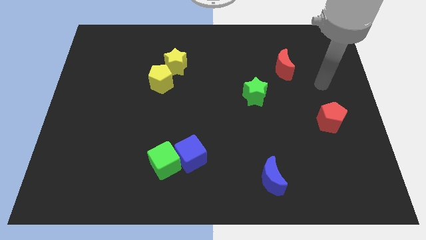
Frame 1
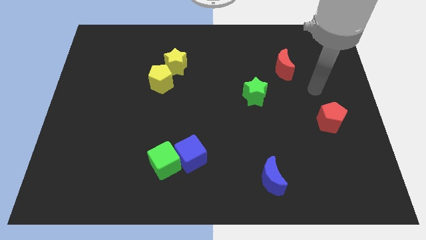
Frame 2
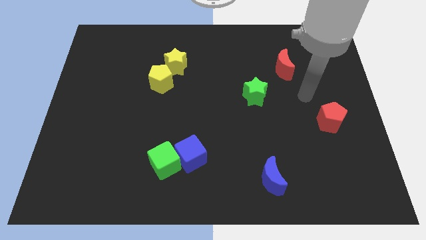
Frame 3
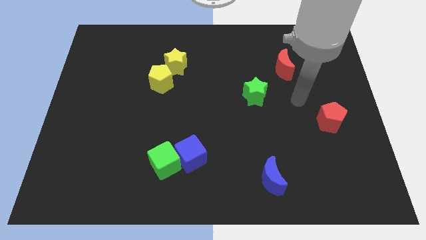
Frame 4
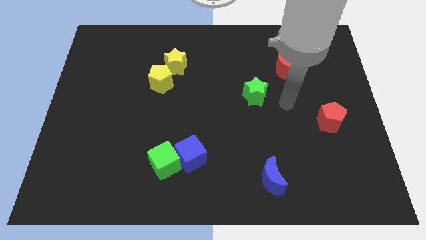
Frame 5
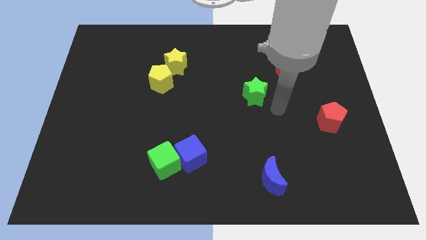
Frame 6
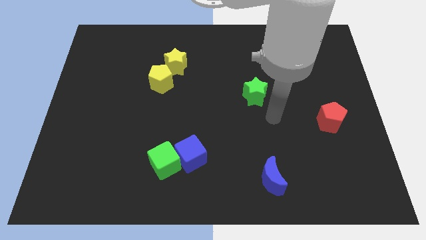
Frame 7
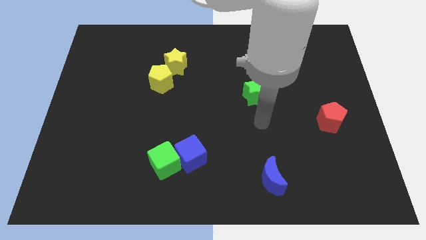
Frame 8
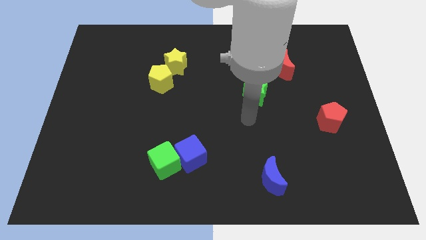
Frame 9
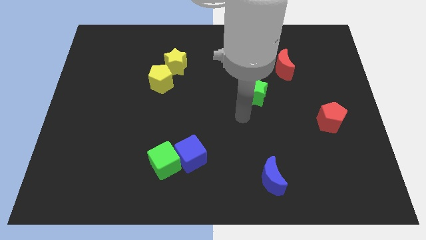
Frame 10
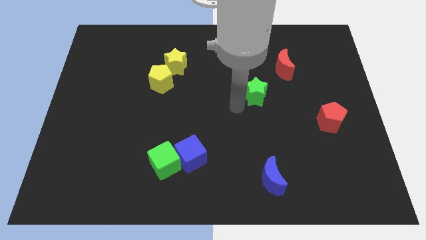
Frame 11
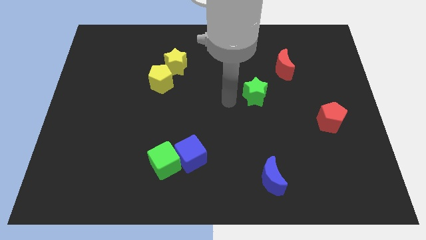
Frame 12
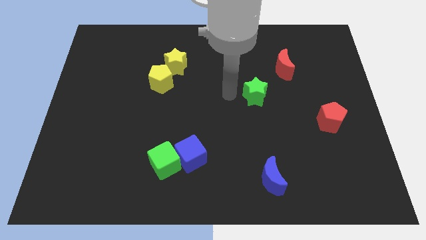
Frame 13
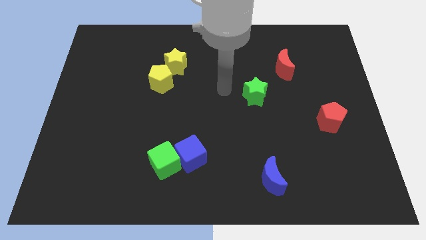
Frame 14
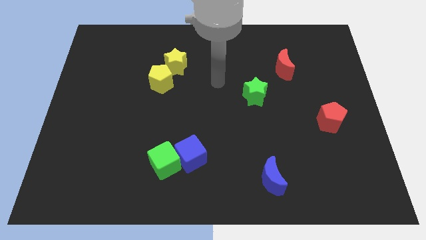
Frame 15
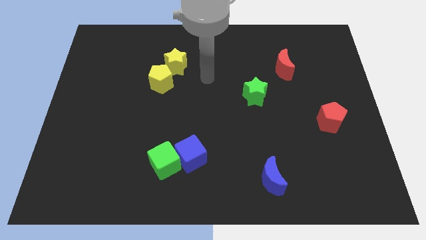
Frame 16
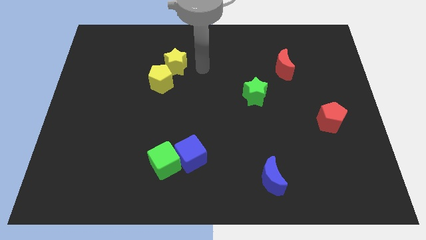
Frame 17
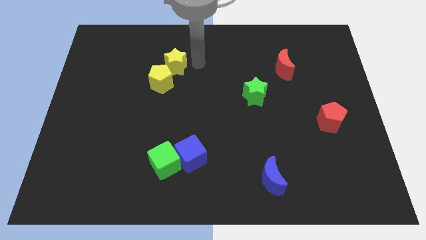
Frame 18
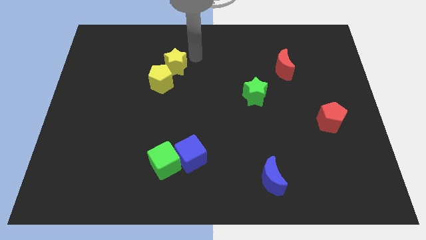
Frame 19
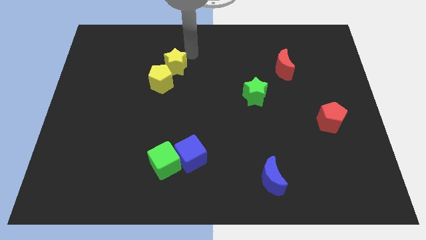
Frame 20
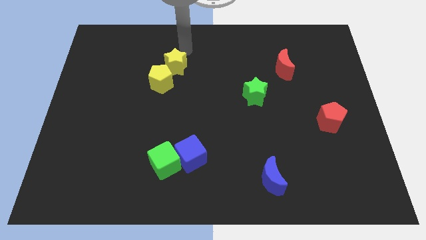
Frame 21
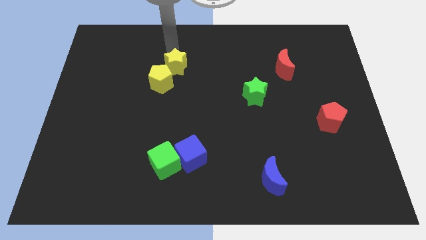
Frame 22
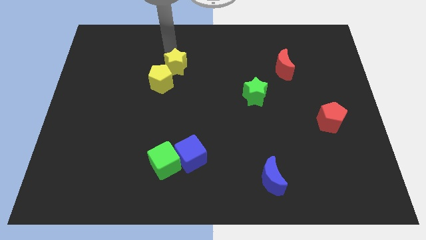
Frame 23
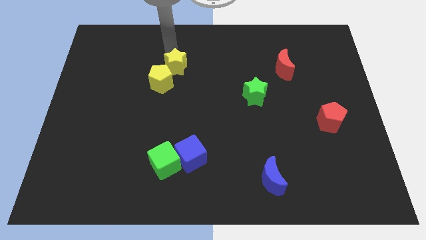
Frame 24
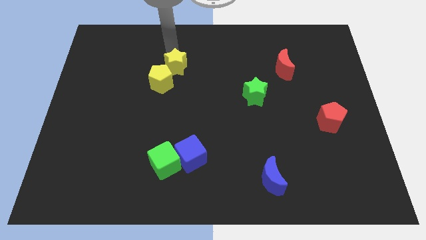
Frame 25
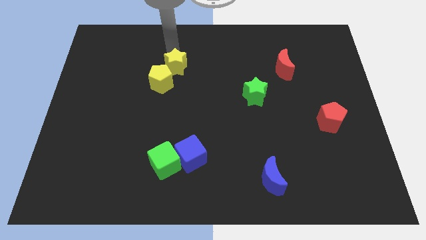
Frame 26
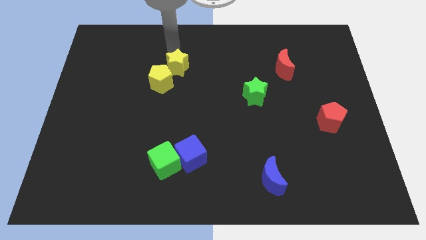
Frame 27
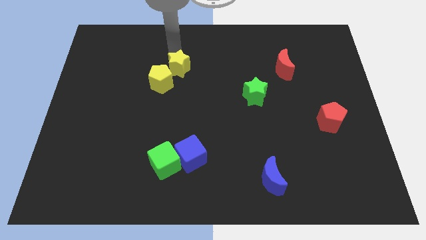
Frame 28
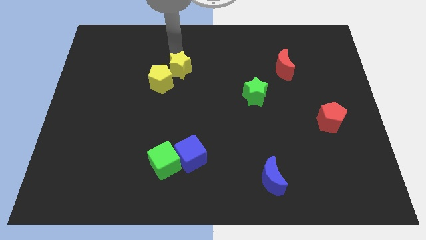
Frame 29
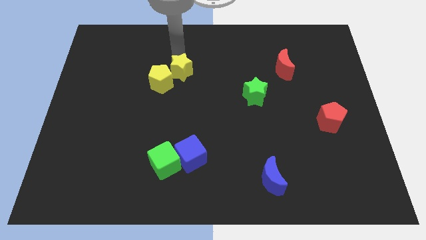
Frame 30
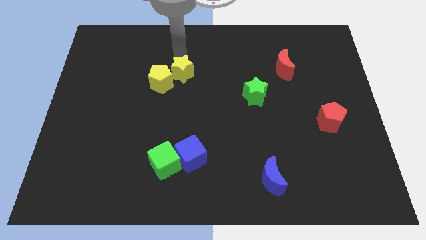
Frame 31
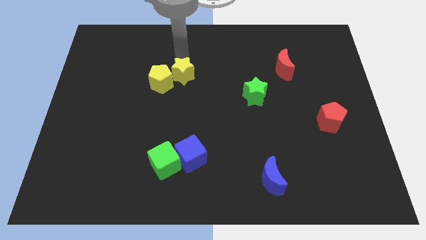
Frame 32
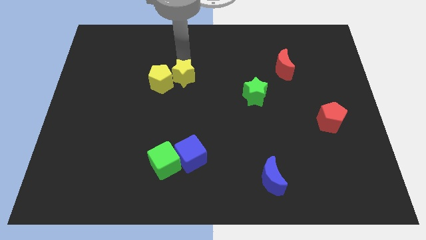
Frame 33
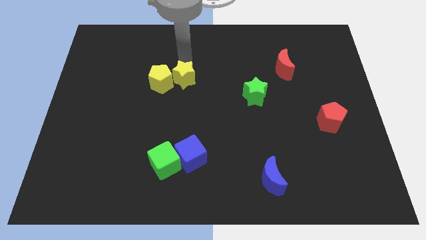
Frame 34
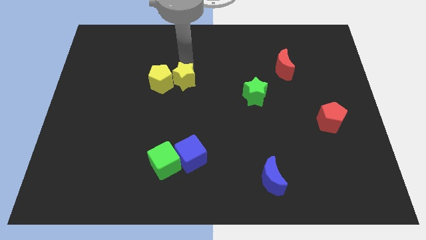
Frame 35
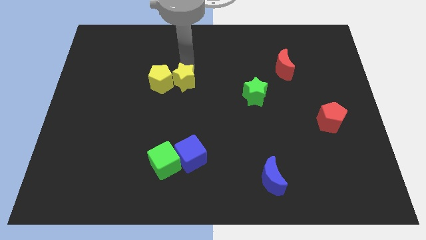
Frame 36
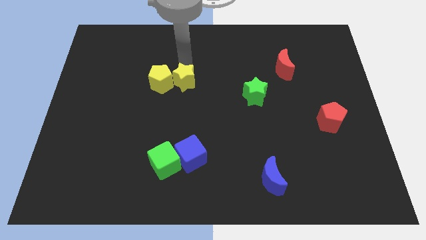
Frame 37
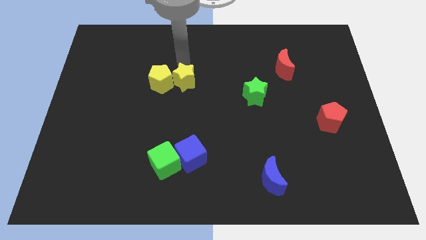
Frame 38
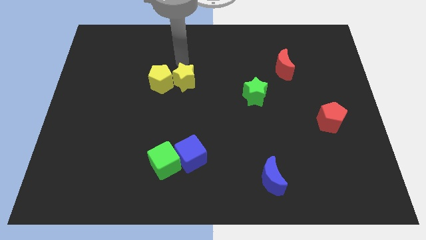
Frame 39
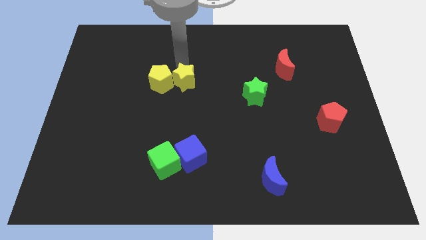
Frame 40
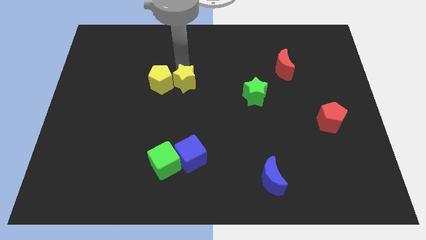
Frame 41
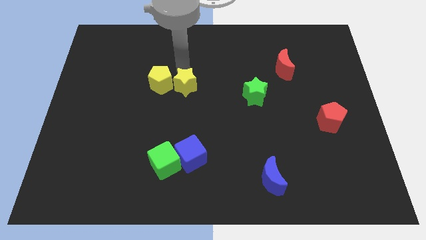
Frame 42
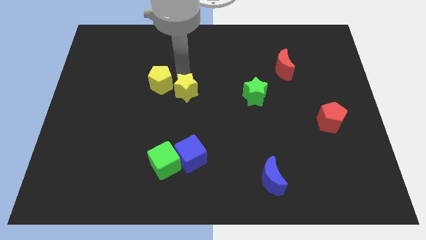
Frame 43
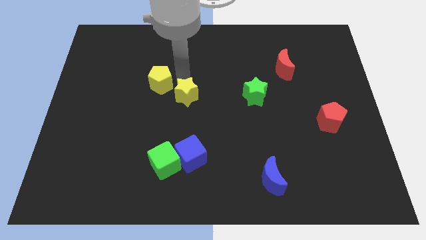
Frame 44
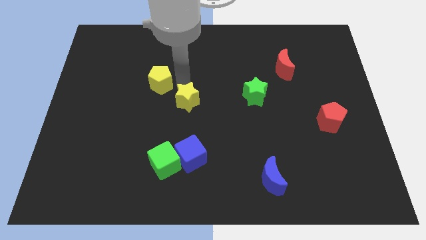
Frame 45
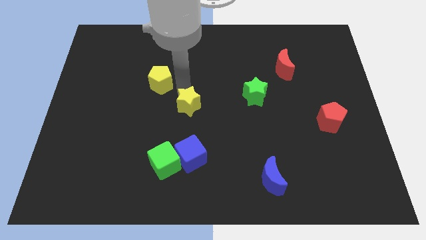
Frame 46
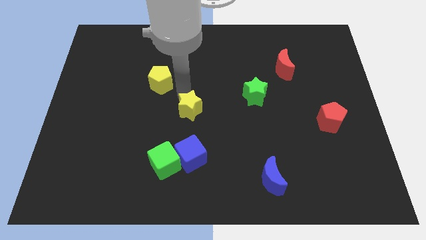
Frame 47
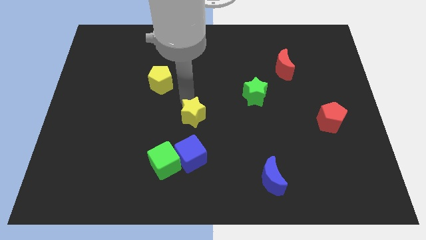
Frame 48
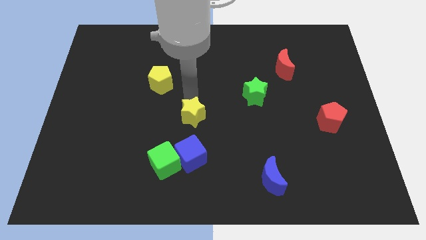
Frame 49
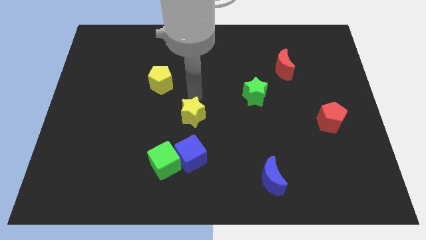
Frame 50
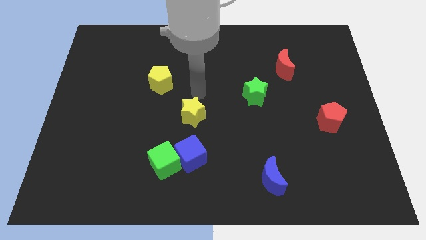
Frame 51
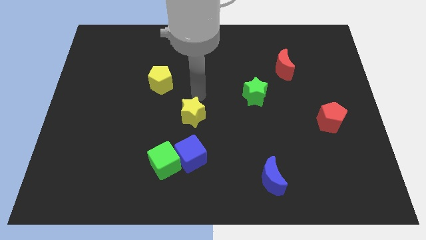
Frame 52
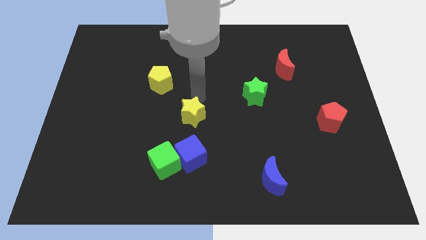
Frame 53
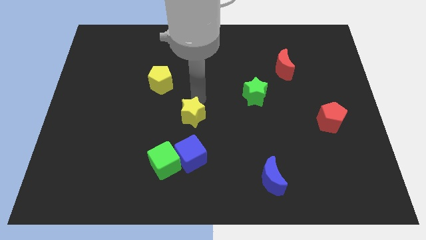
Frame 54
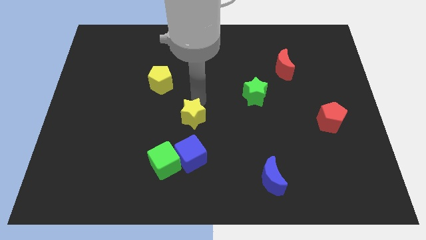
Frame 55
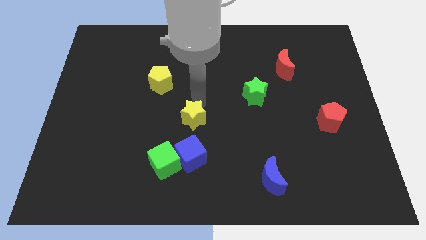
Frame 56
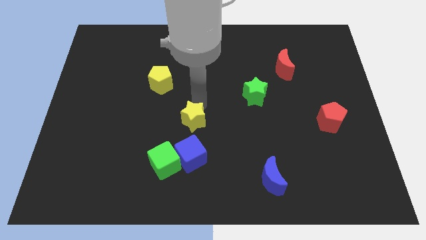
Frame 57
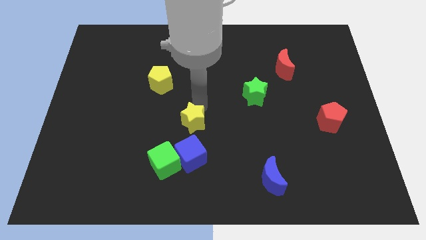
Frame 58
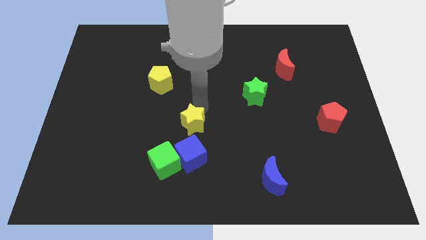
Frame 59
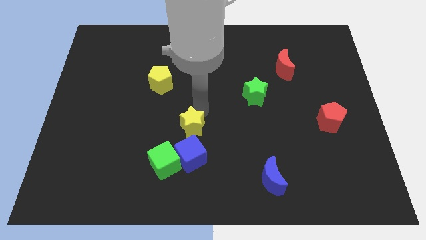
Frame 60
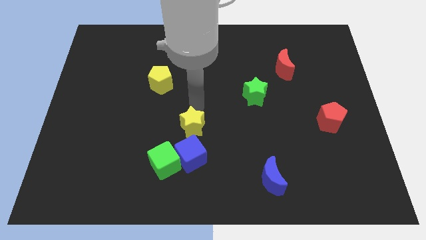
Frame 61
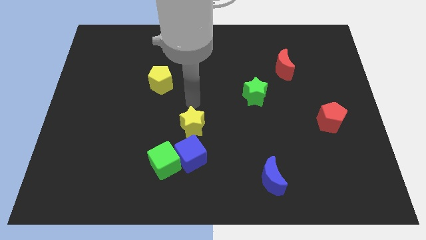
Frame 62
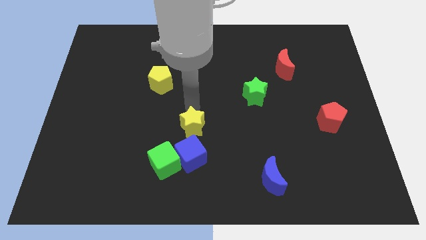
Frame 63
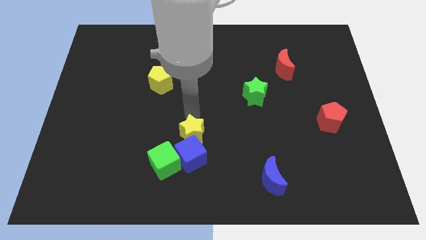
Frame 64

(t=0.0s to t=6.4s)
put the yellow star next to the blue cube

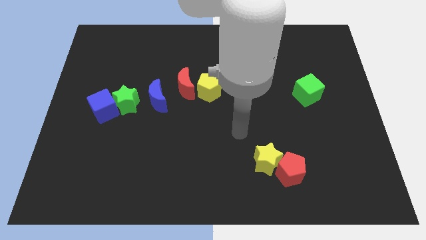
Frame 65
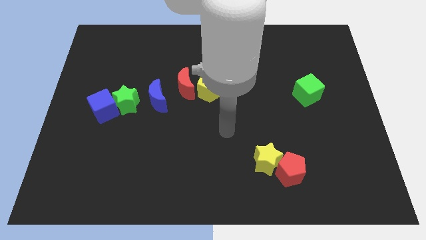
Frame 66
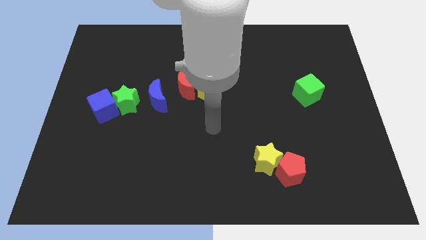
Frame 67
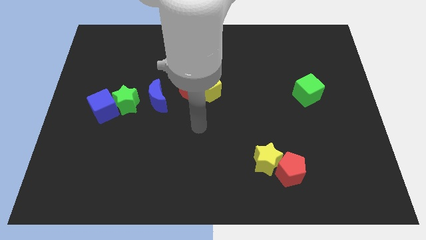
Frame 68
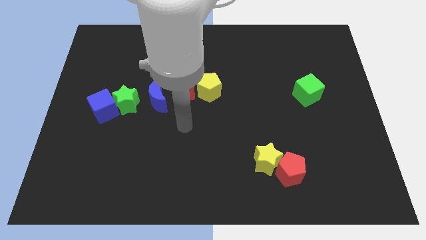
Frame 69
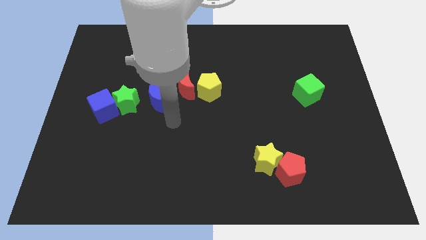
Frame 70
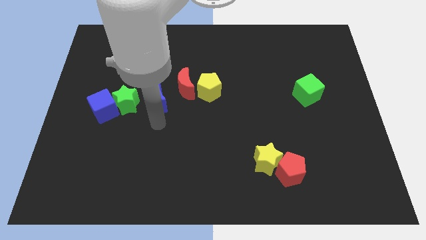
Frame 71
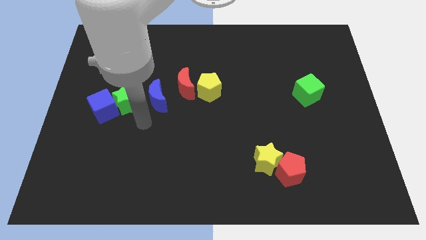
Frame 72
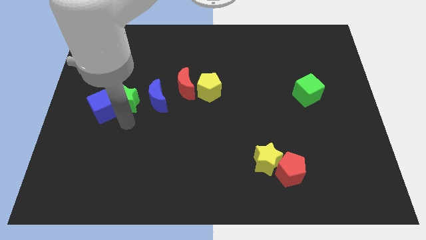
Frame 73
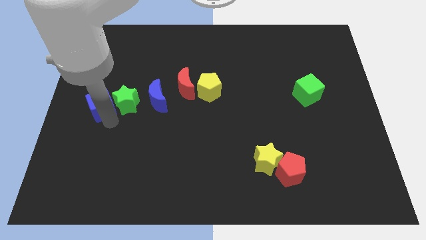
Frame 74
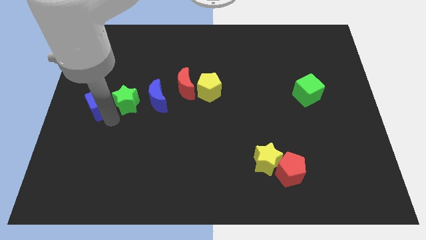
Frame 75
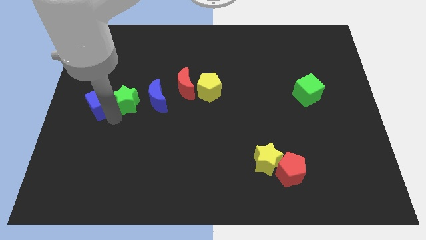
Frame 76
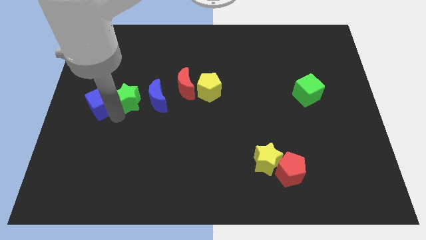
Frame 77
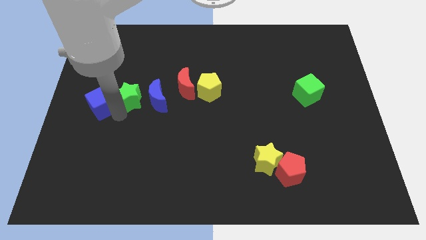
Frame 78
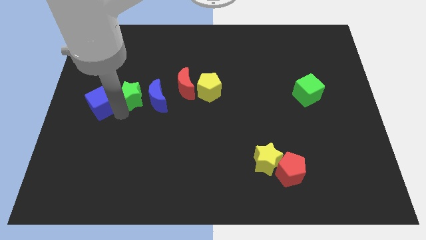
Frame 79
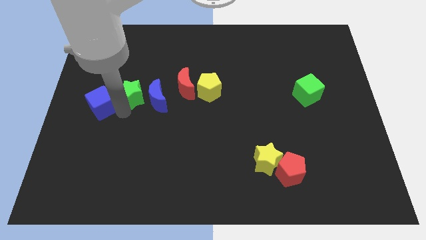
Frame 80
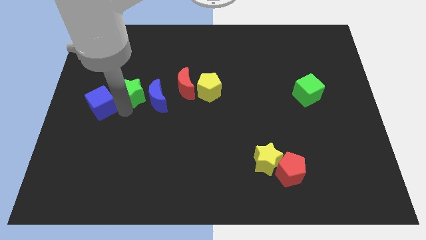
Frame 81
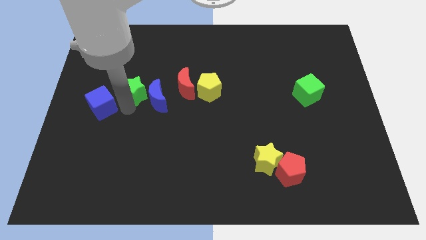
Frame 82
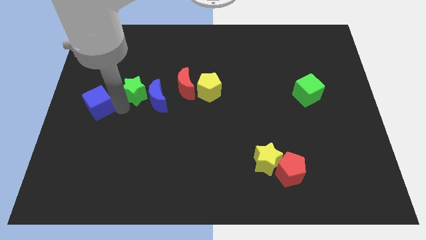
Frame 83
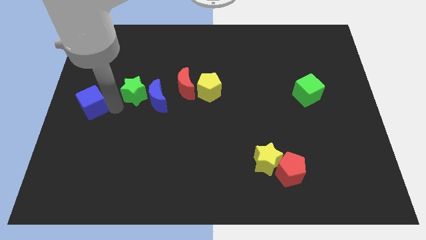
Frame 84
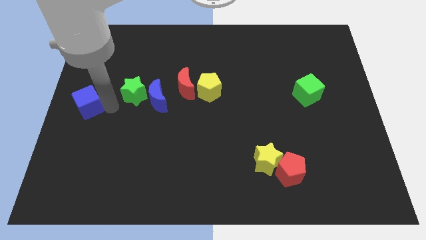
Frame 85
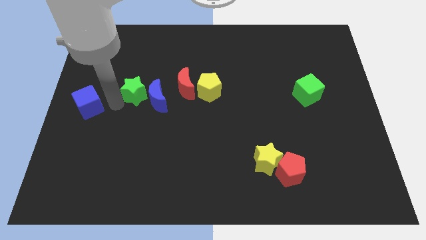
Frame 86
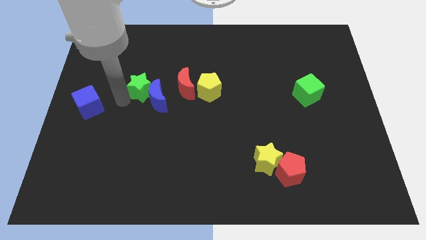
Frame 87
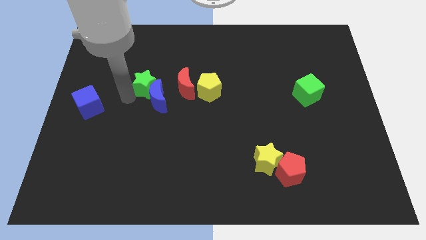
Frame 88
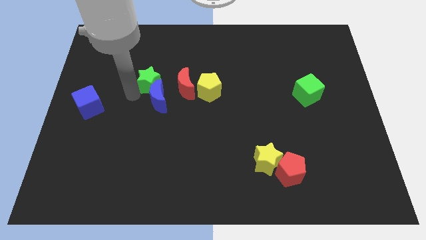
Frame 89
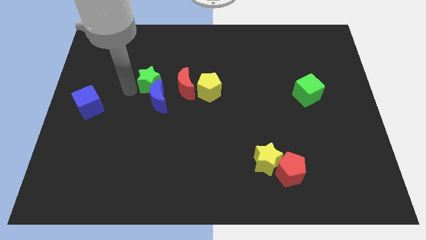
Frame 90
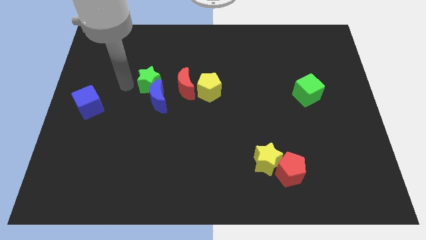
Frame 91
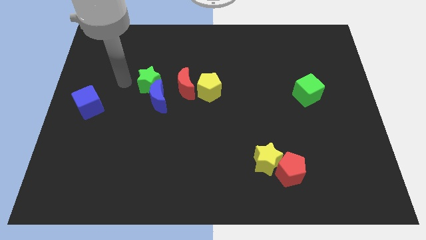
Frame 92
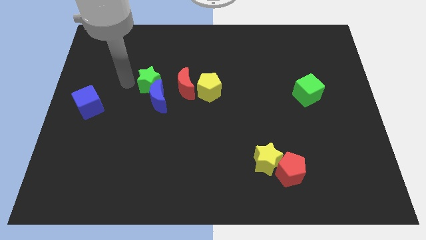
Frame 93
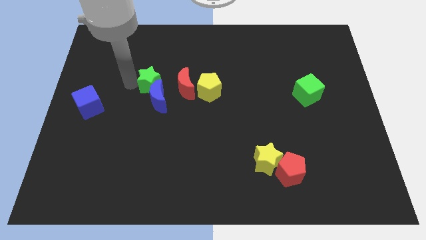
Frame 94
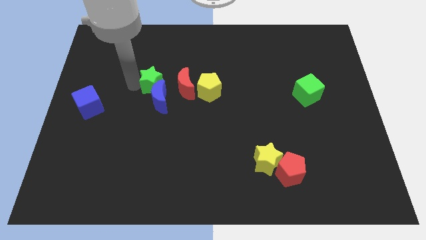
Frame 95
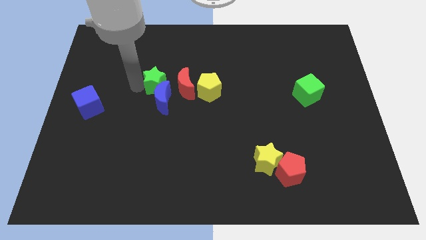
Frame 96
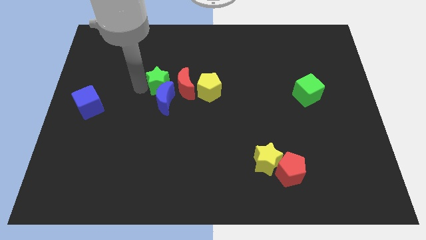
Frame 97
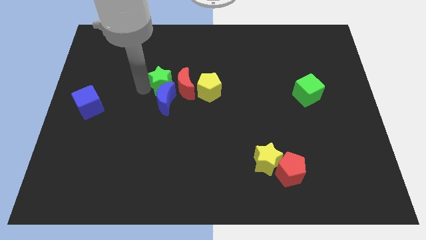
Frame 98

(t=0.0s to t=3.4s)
move the green star next to the red moon
